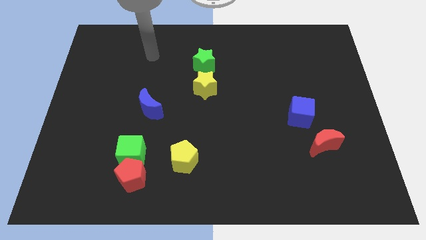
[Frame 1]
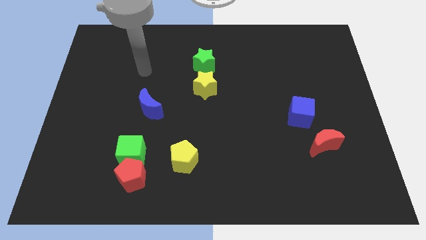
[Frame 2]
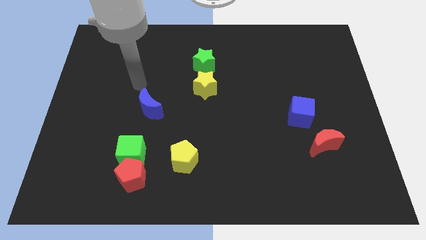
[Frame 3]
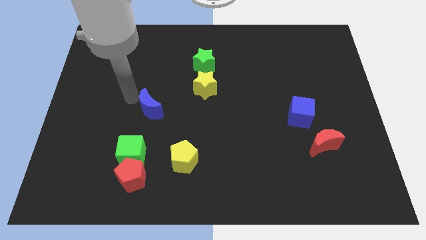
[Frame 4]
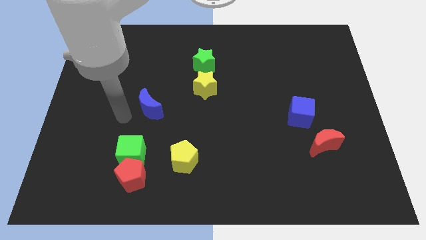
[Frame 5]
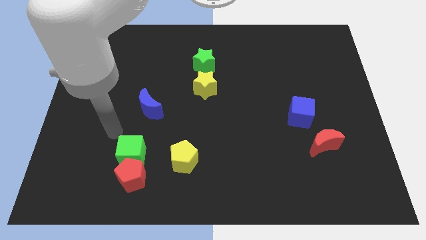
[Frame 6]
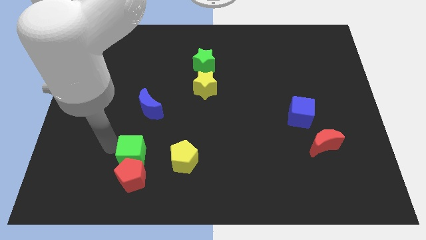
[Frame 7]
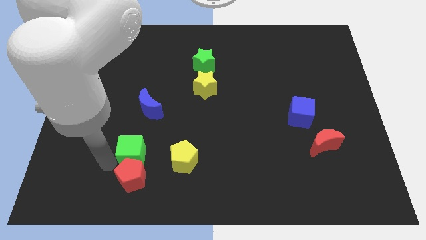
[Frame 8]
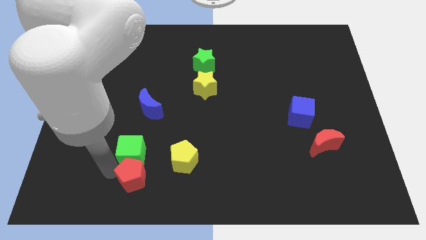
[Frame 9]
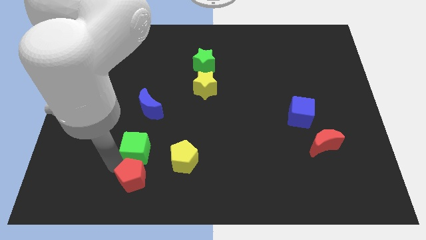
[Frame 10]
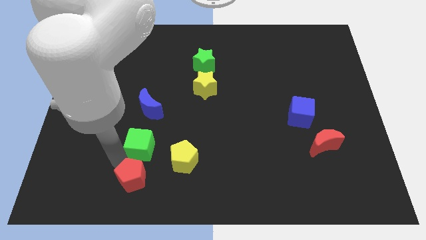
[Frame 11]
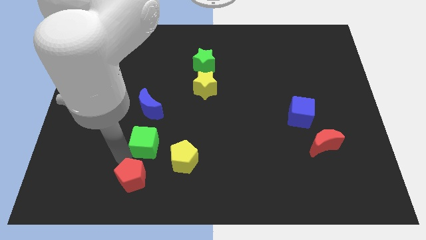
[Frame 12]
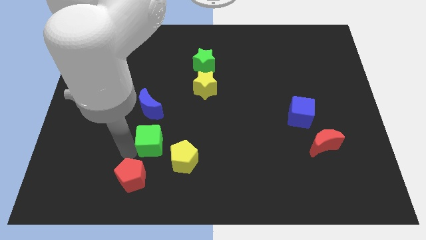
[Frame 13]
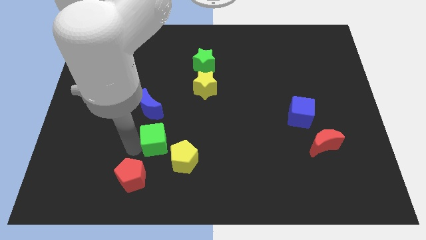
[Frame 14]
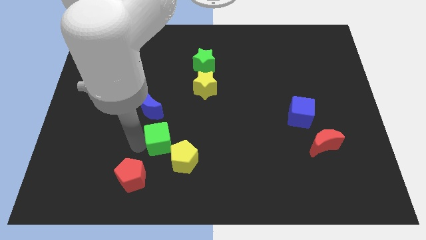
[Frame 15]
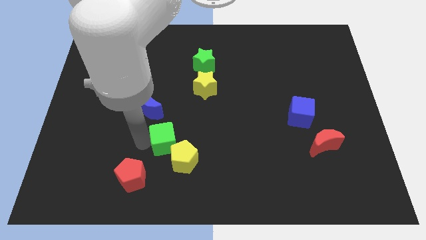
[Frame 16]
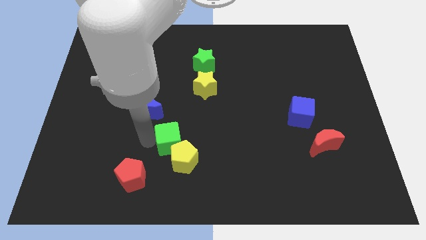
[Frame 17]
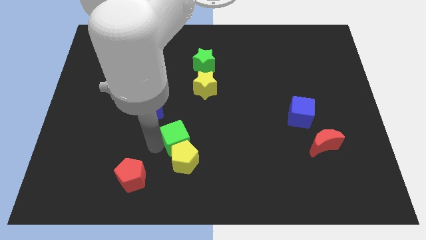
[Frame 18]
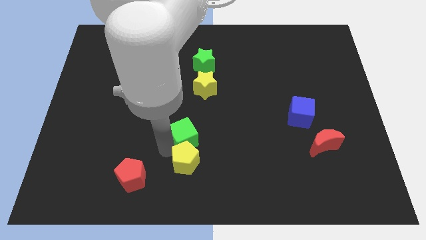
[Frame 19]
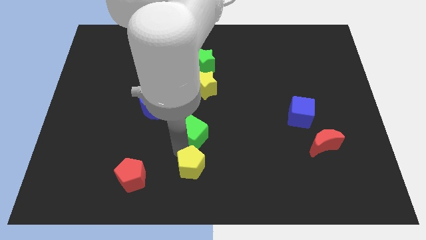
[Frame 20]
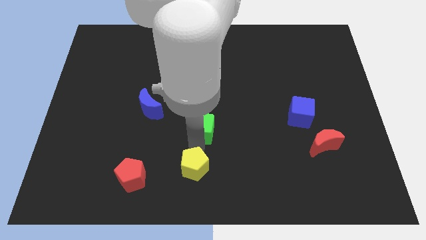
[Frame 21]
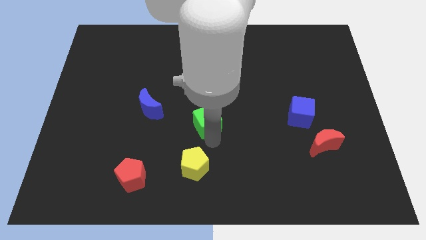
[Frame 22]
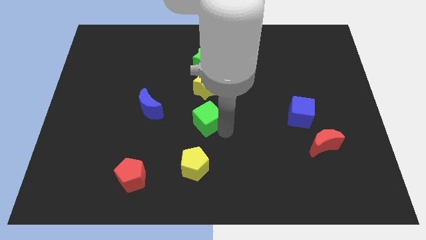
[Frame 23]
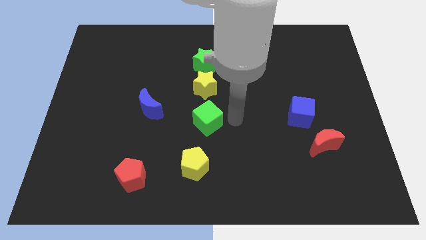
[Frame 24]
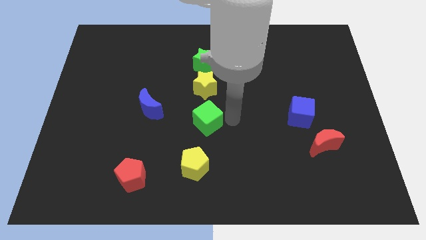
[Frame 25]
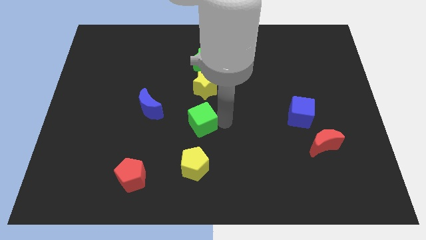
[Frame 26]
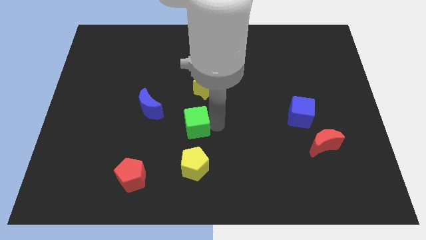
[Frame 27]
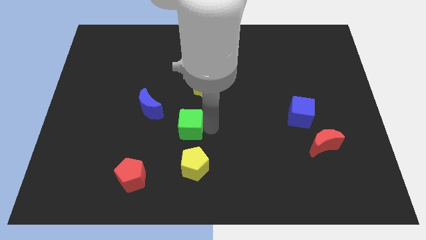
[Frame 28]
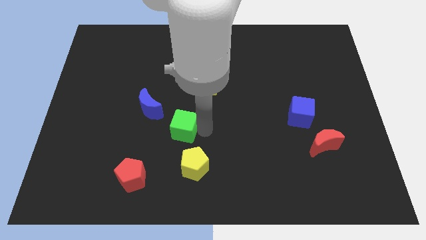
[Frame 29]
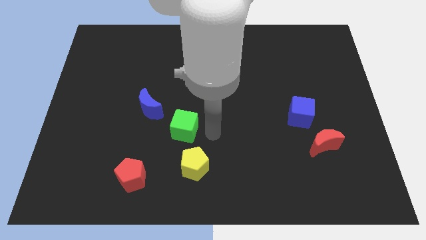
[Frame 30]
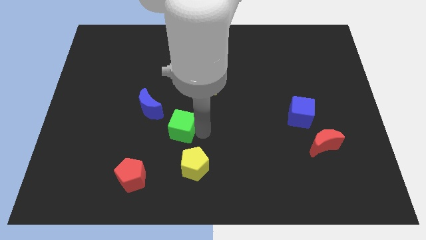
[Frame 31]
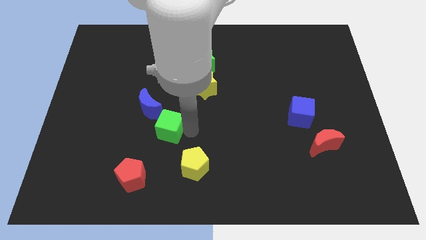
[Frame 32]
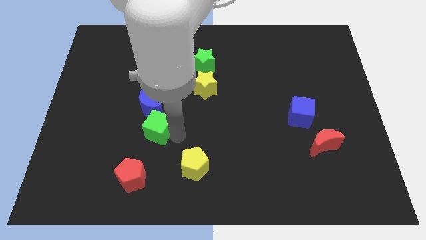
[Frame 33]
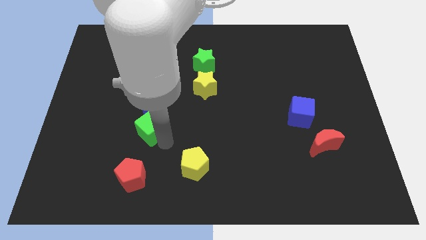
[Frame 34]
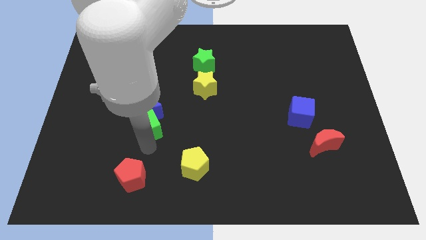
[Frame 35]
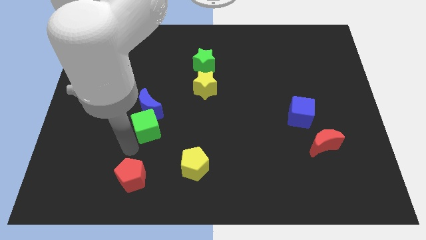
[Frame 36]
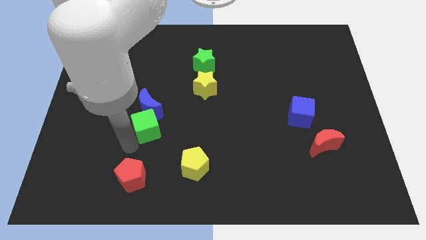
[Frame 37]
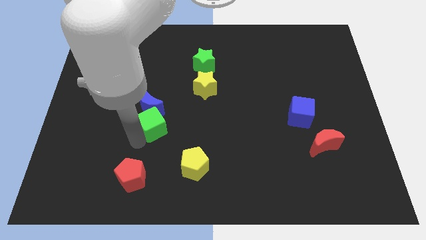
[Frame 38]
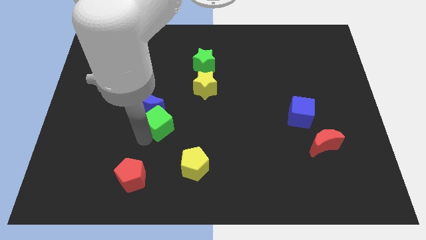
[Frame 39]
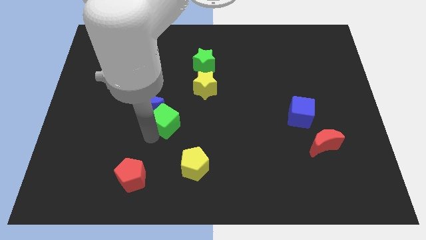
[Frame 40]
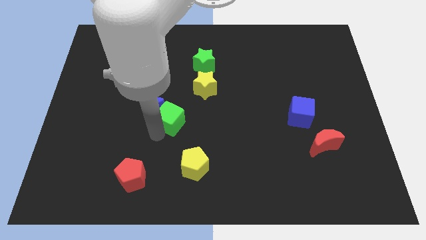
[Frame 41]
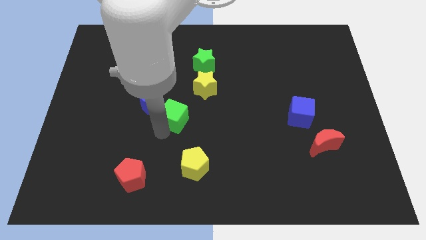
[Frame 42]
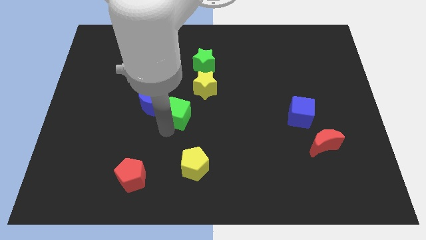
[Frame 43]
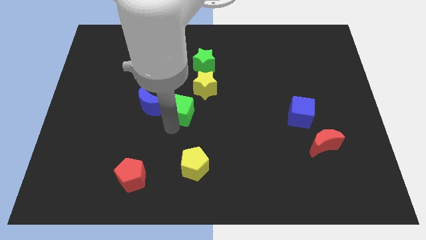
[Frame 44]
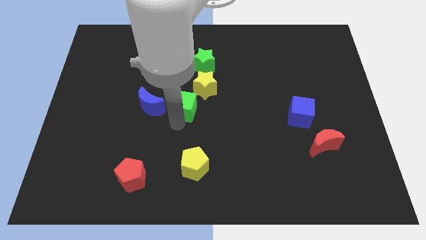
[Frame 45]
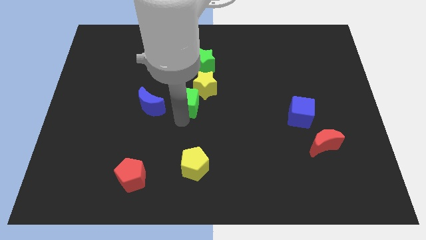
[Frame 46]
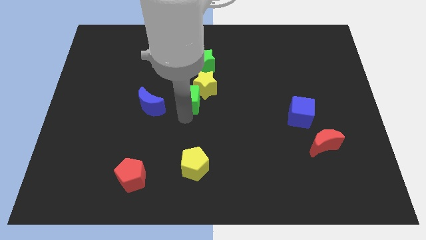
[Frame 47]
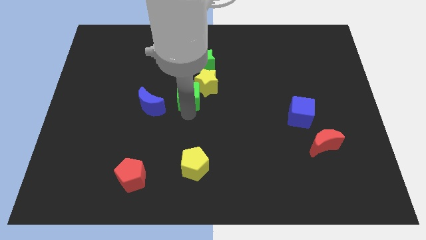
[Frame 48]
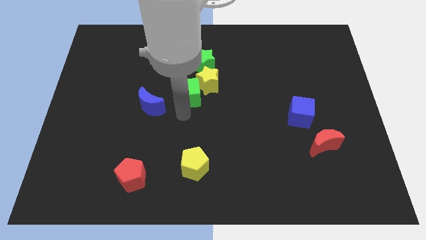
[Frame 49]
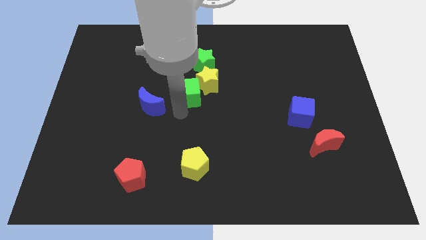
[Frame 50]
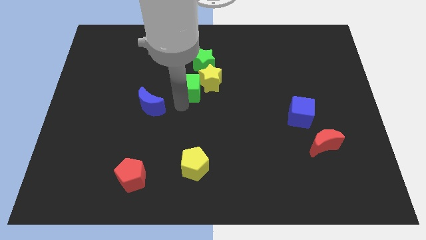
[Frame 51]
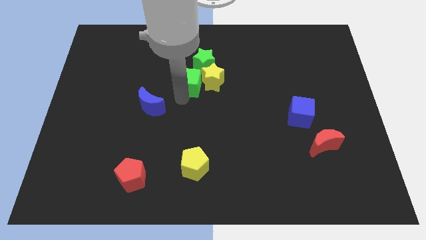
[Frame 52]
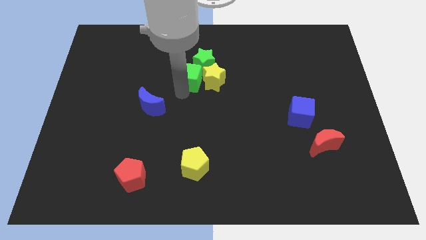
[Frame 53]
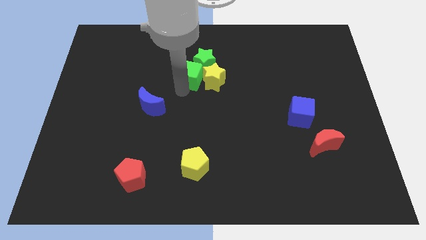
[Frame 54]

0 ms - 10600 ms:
push the green cube to the green star

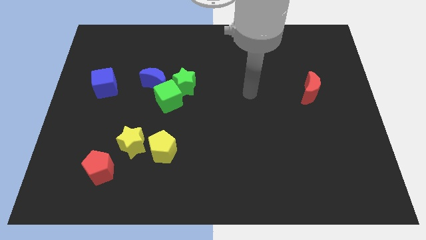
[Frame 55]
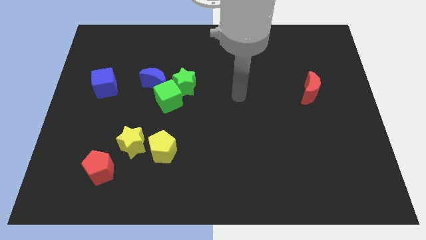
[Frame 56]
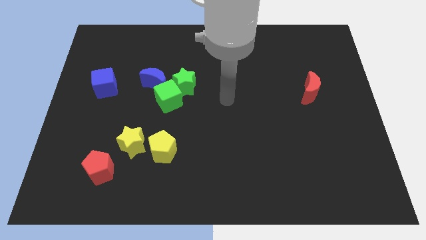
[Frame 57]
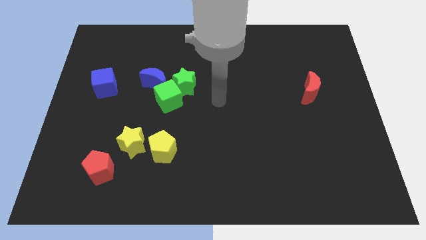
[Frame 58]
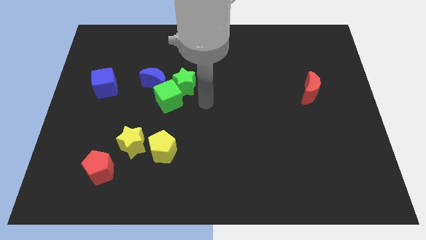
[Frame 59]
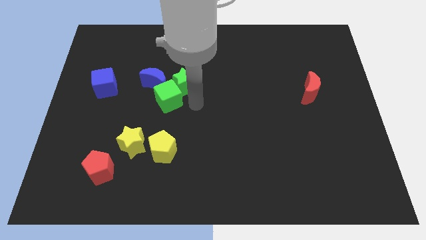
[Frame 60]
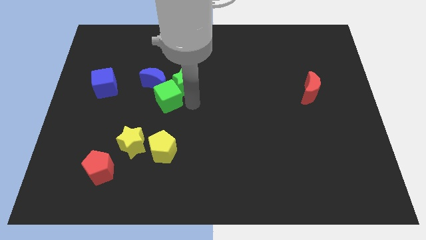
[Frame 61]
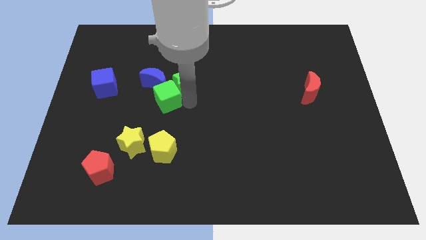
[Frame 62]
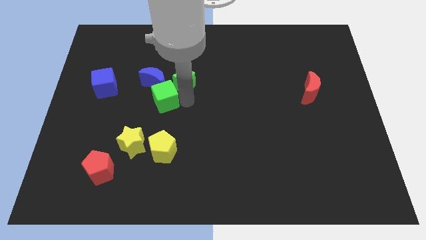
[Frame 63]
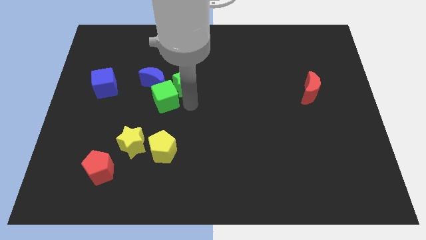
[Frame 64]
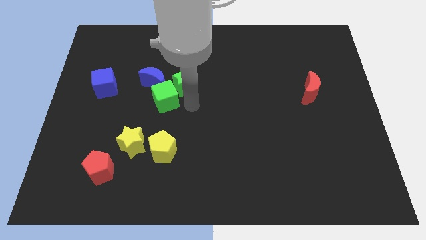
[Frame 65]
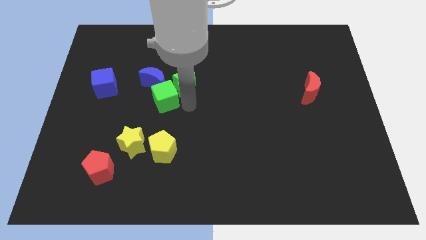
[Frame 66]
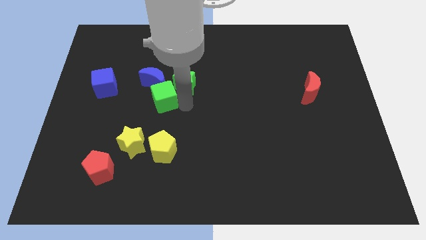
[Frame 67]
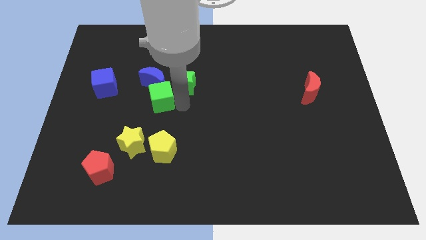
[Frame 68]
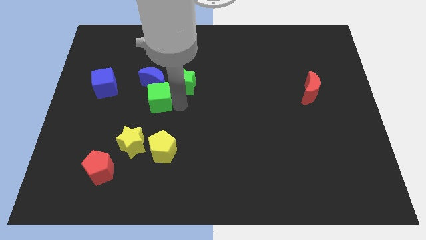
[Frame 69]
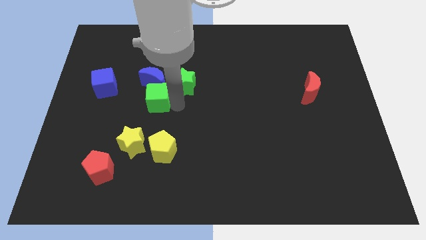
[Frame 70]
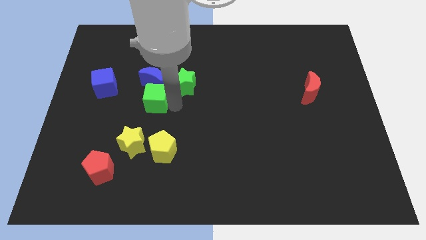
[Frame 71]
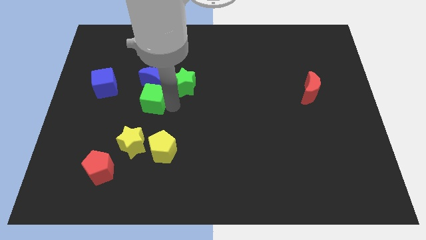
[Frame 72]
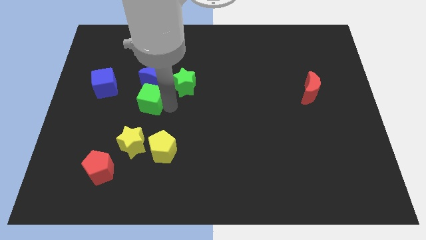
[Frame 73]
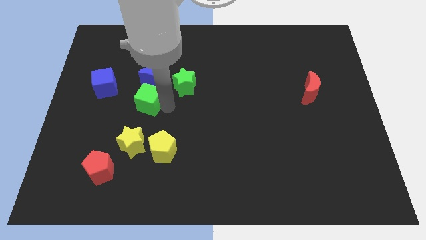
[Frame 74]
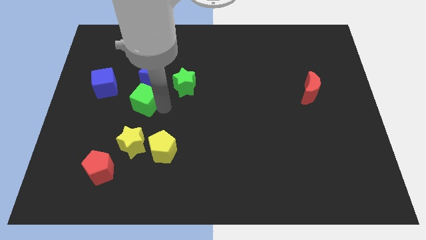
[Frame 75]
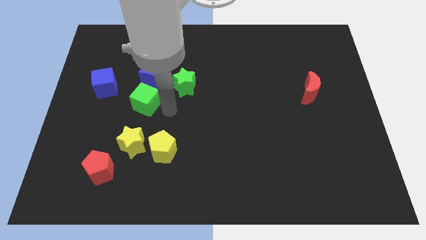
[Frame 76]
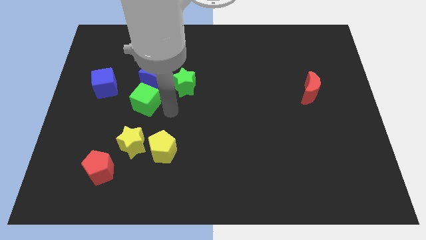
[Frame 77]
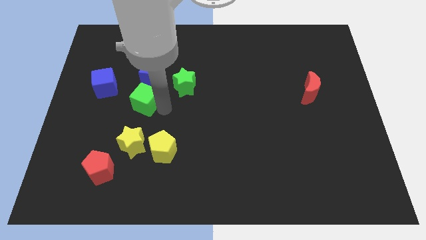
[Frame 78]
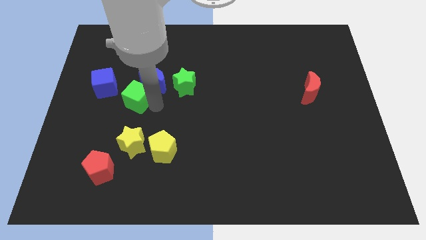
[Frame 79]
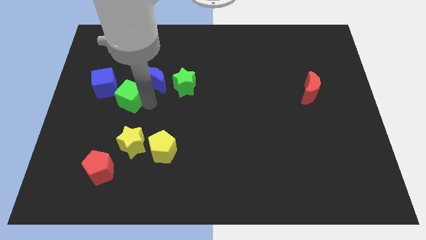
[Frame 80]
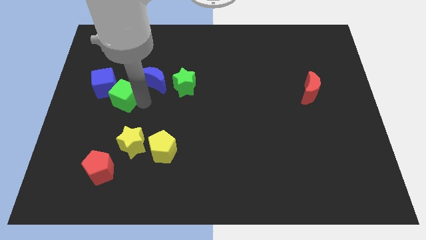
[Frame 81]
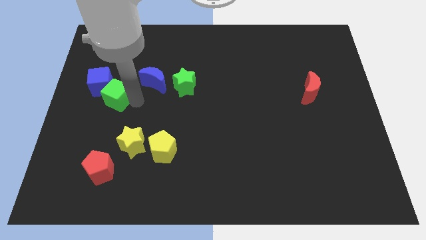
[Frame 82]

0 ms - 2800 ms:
push the green cube to the blue cube
